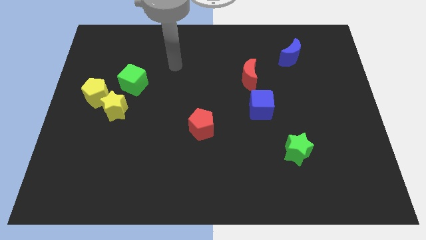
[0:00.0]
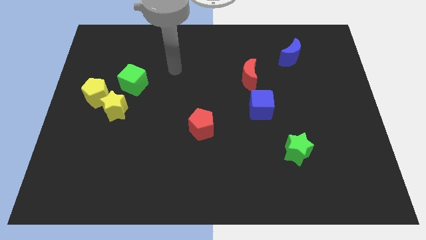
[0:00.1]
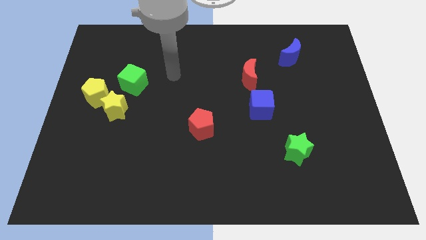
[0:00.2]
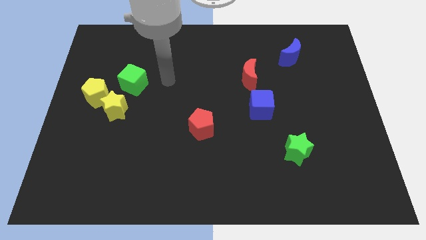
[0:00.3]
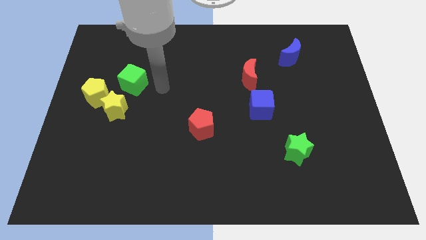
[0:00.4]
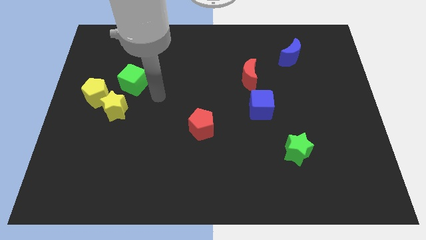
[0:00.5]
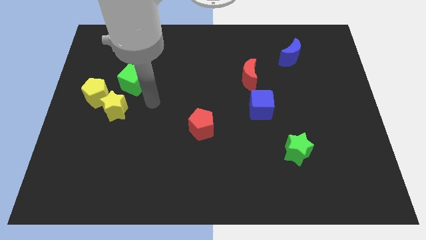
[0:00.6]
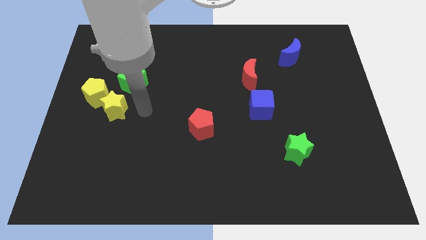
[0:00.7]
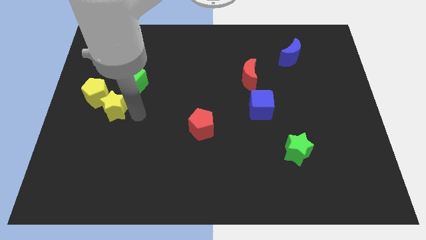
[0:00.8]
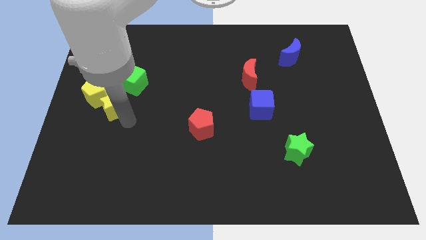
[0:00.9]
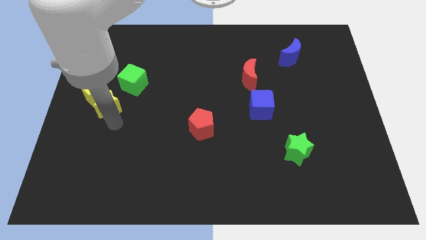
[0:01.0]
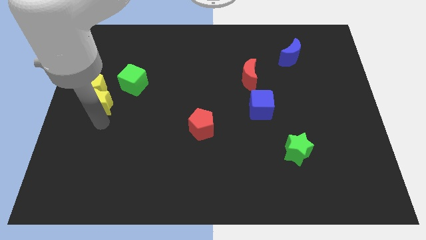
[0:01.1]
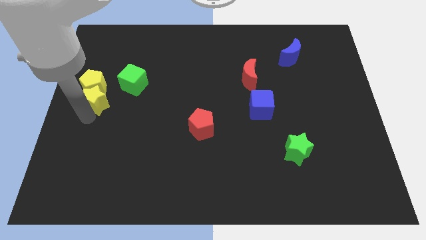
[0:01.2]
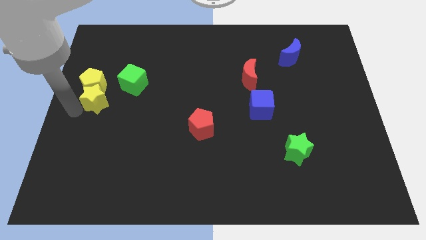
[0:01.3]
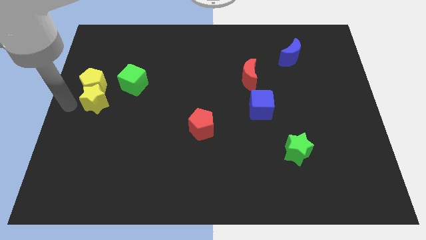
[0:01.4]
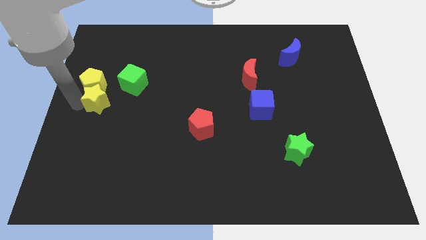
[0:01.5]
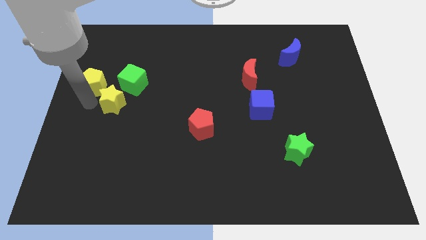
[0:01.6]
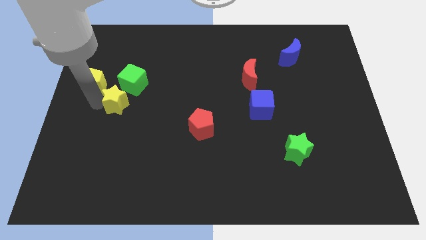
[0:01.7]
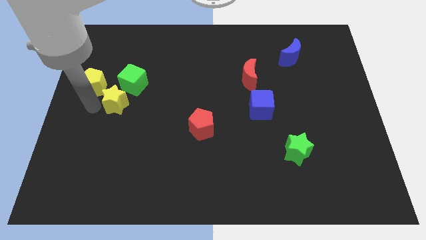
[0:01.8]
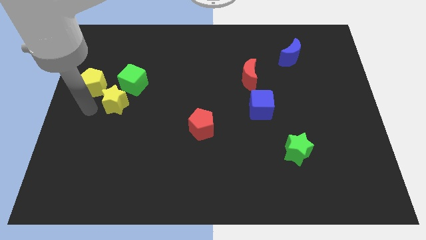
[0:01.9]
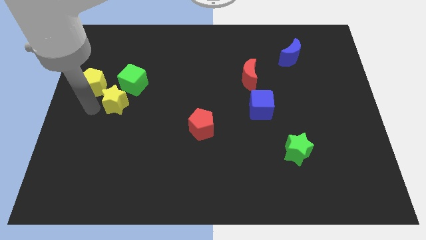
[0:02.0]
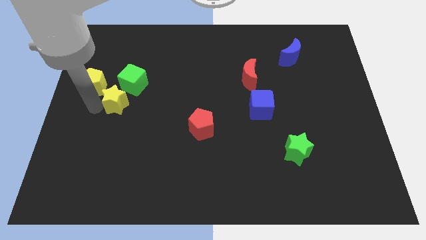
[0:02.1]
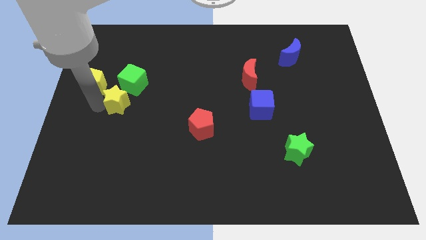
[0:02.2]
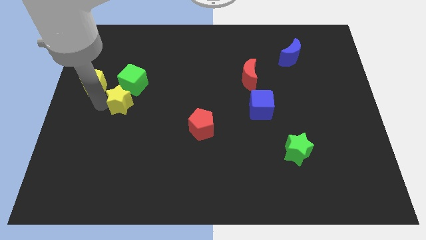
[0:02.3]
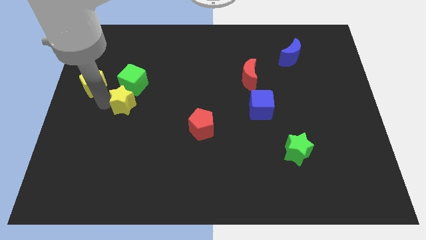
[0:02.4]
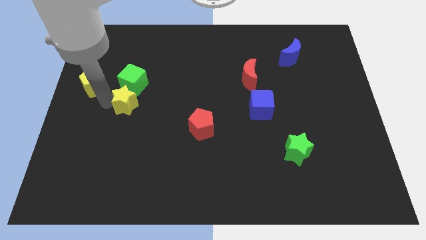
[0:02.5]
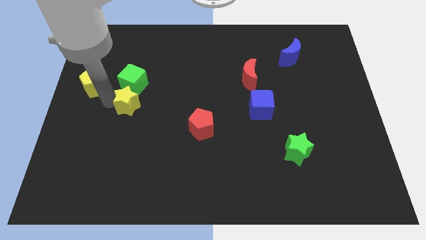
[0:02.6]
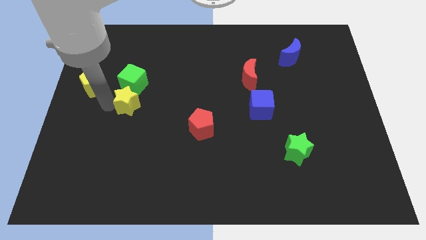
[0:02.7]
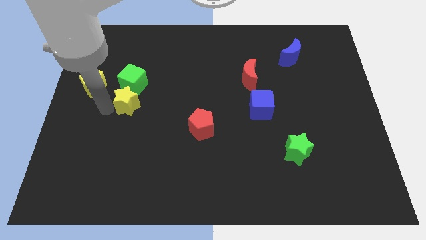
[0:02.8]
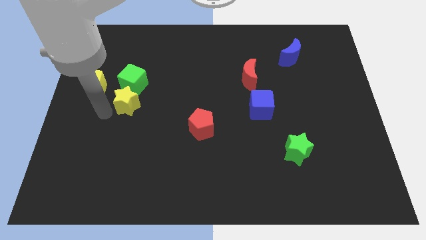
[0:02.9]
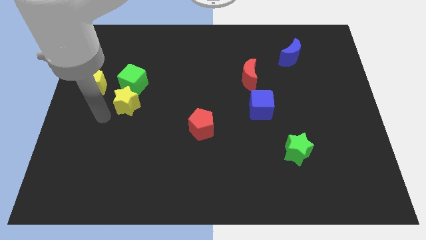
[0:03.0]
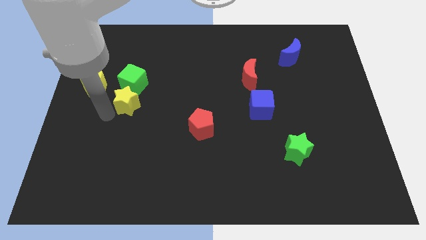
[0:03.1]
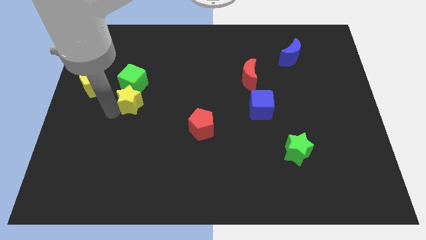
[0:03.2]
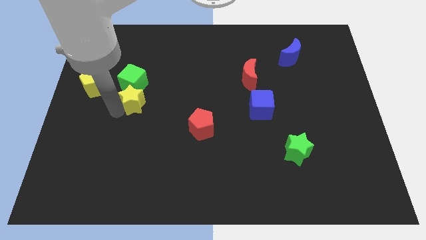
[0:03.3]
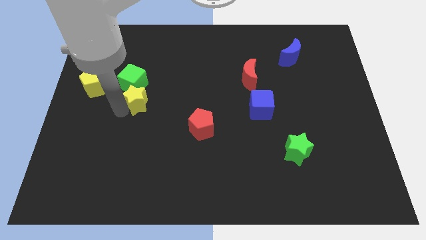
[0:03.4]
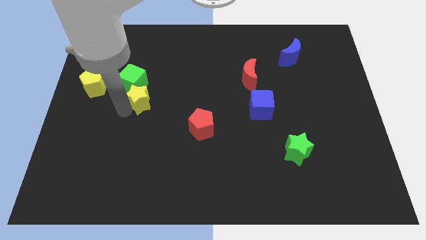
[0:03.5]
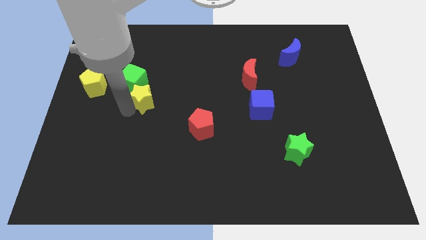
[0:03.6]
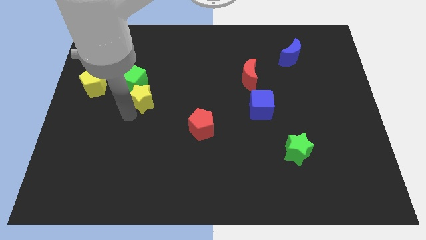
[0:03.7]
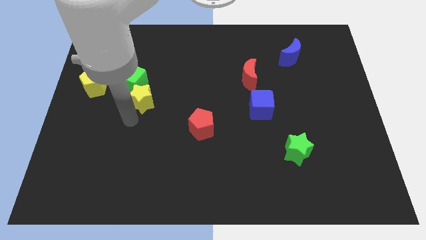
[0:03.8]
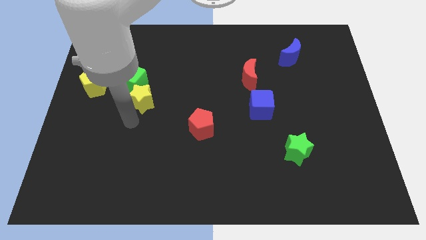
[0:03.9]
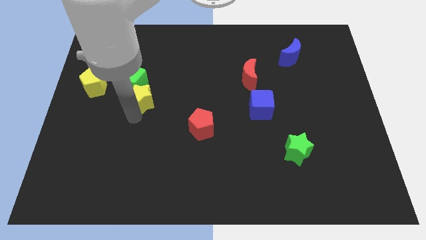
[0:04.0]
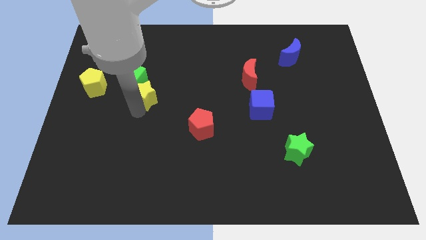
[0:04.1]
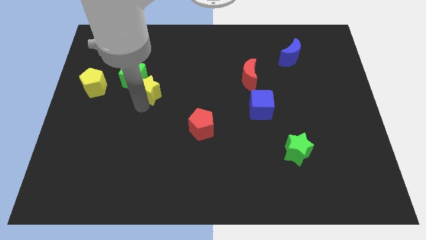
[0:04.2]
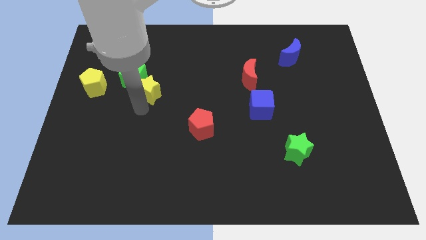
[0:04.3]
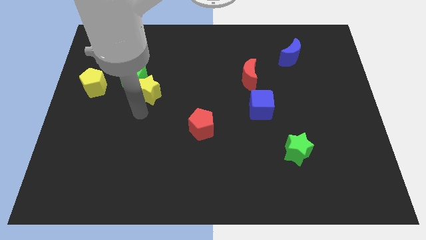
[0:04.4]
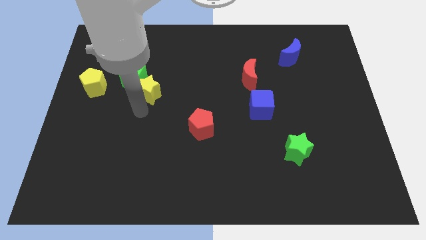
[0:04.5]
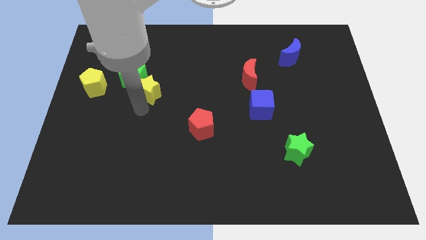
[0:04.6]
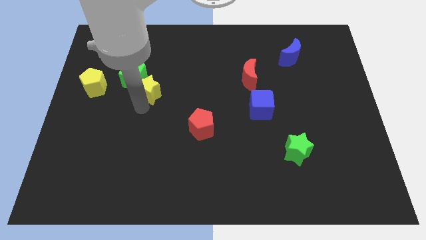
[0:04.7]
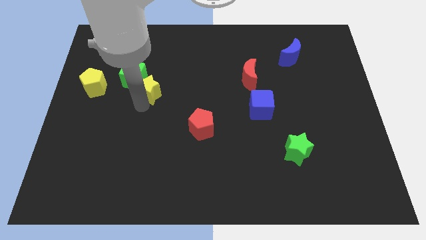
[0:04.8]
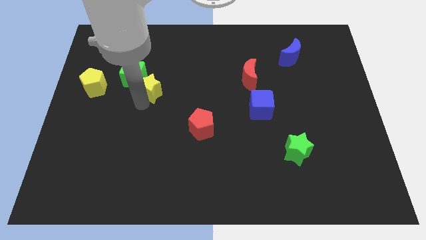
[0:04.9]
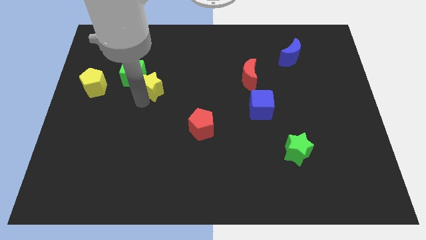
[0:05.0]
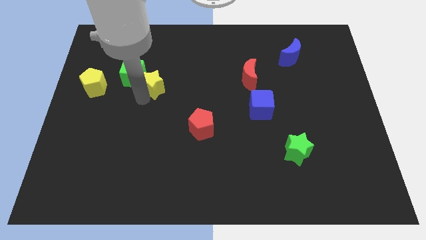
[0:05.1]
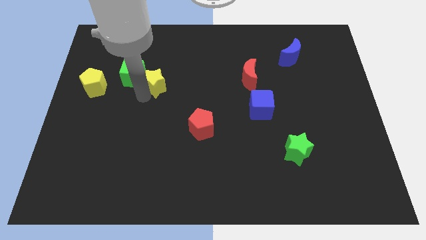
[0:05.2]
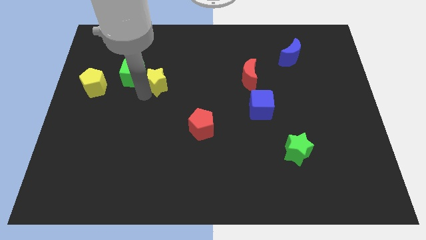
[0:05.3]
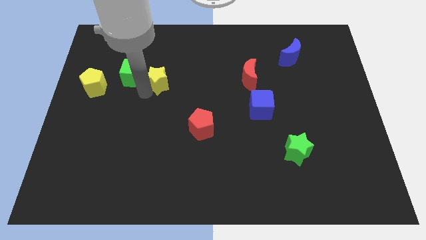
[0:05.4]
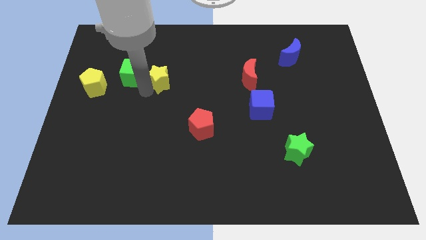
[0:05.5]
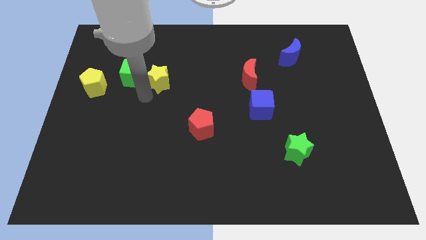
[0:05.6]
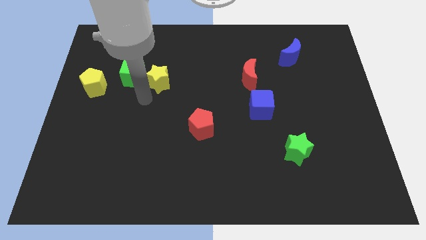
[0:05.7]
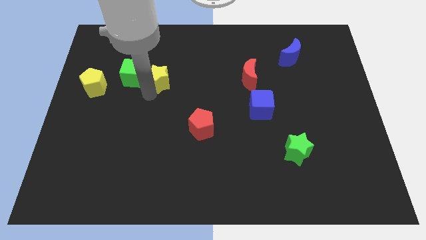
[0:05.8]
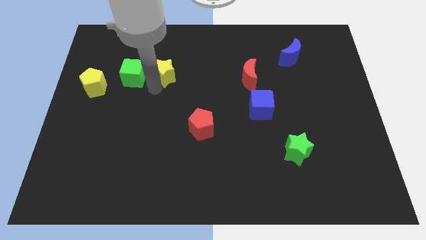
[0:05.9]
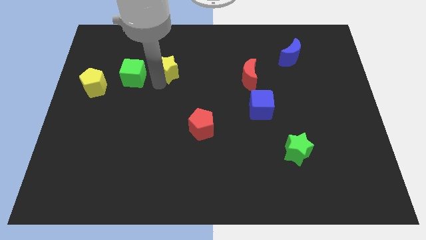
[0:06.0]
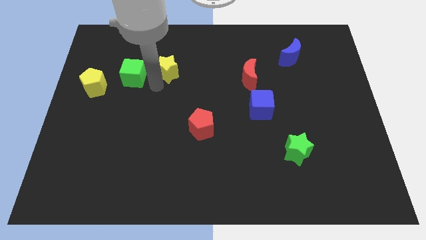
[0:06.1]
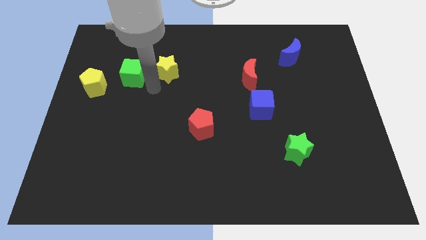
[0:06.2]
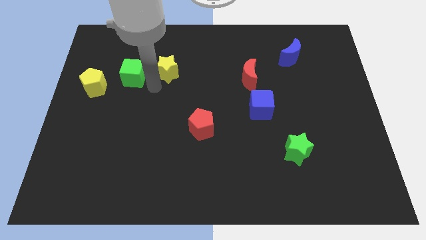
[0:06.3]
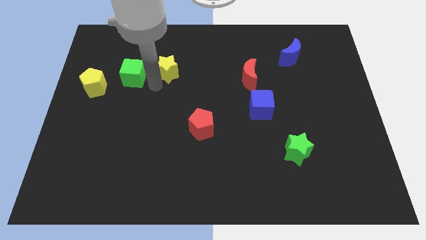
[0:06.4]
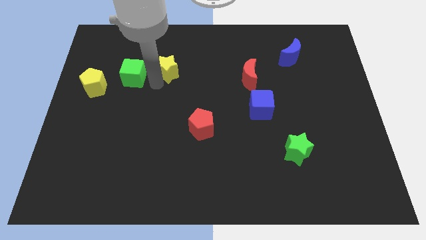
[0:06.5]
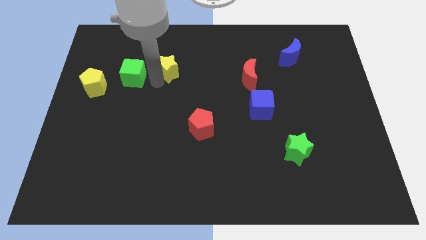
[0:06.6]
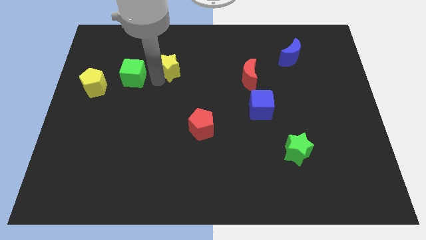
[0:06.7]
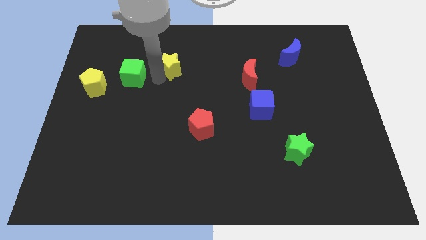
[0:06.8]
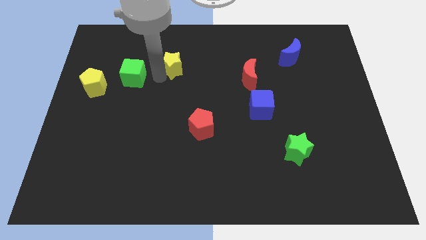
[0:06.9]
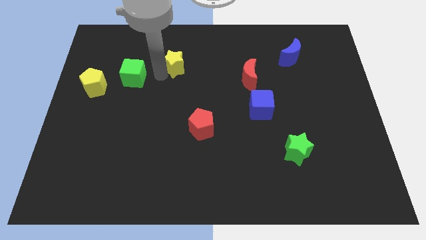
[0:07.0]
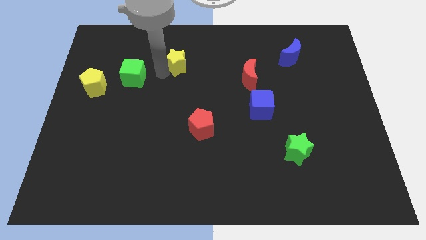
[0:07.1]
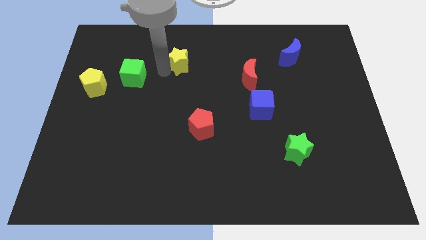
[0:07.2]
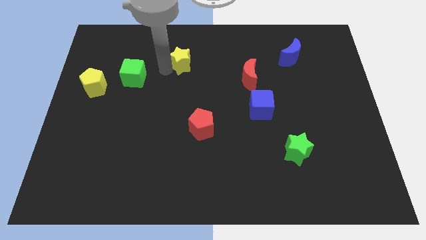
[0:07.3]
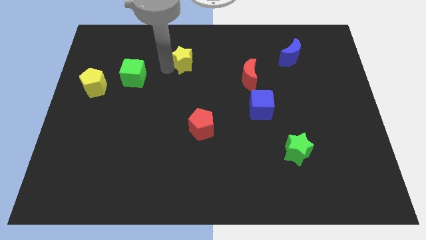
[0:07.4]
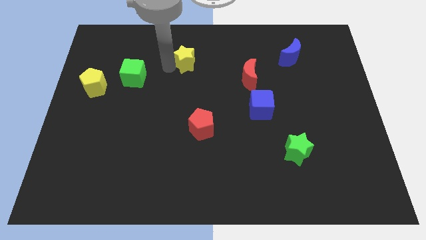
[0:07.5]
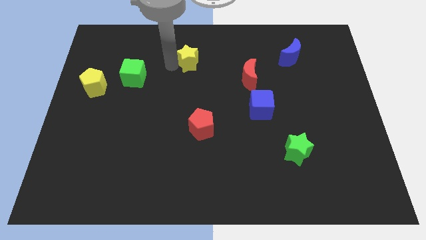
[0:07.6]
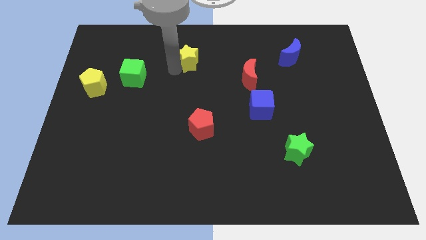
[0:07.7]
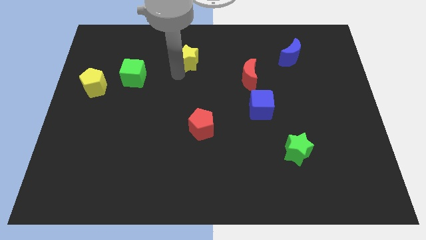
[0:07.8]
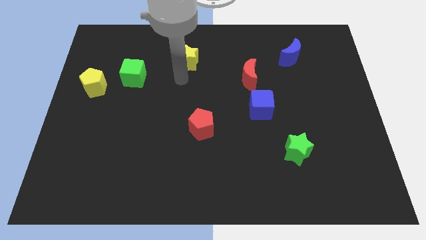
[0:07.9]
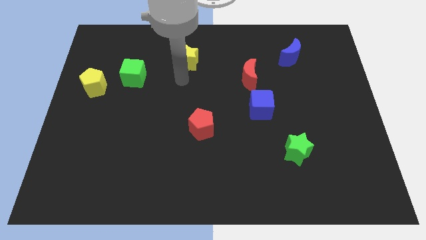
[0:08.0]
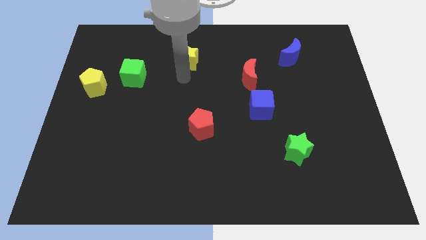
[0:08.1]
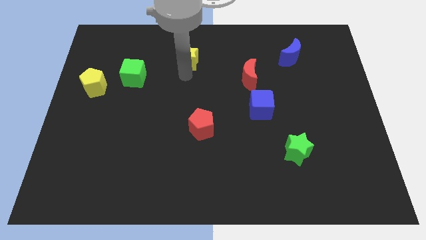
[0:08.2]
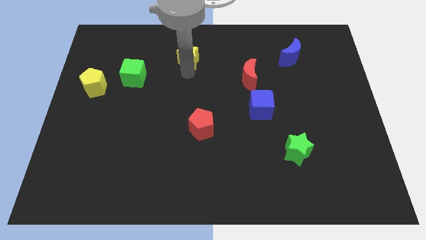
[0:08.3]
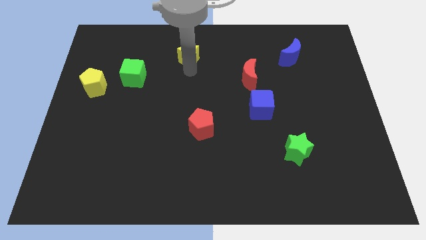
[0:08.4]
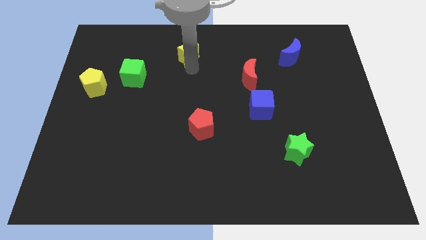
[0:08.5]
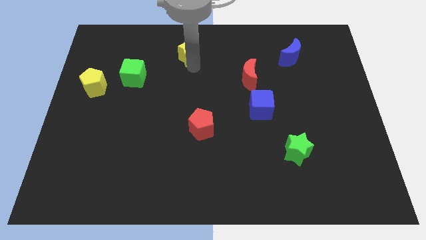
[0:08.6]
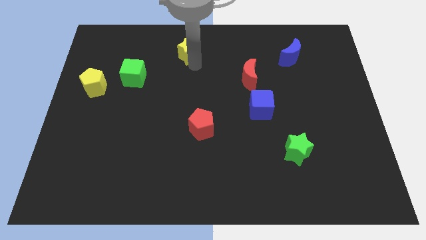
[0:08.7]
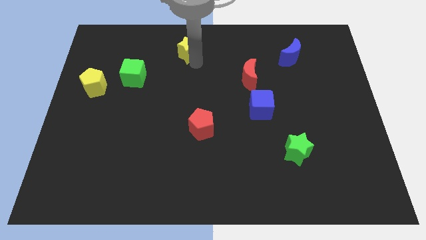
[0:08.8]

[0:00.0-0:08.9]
move the yellow star to the top
